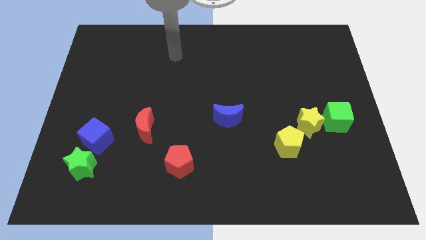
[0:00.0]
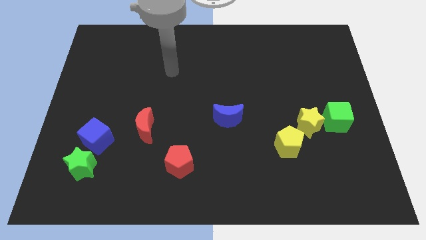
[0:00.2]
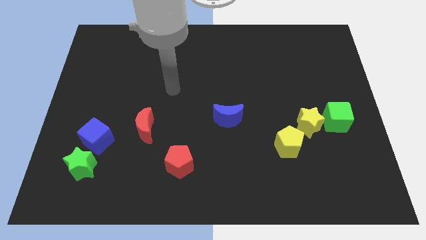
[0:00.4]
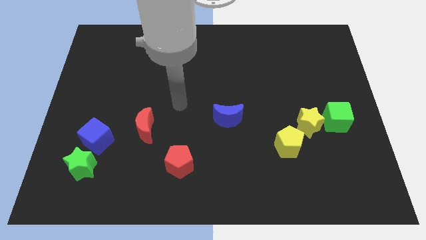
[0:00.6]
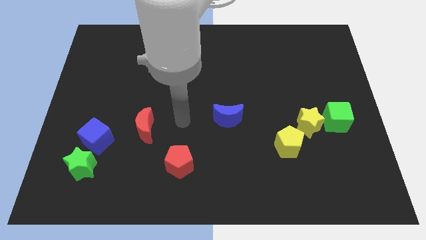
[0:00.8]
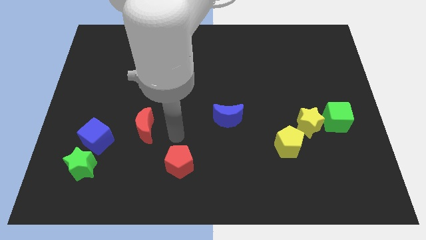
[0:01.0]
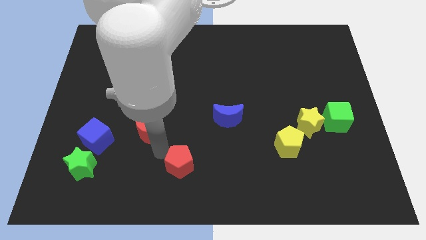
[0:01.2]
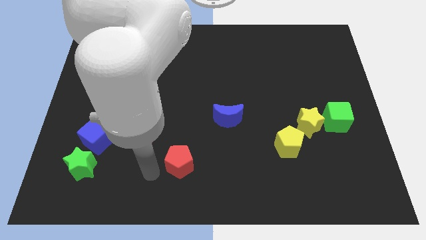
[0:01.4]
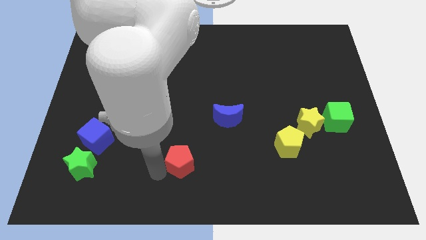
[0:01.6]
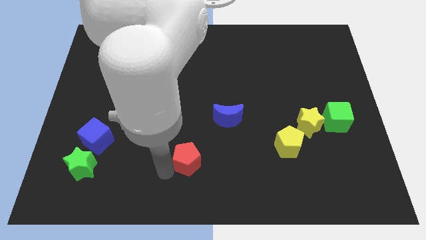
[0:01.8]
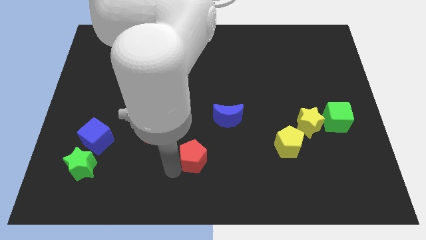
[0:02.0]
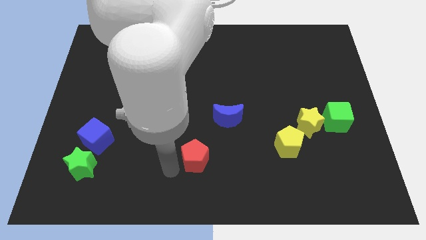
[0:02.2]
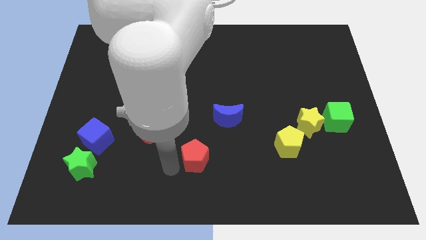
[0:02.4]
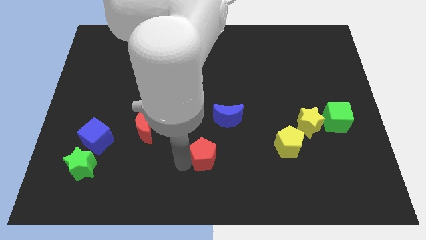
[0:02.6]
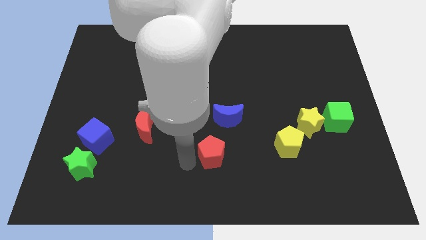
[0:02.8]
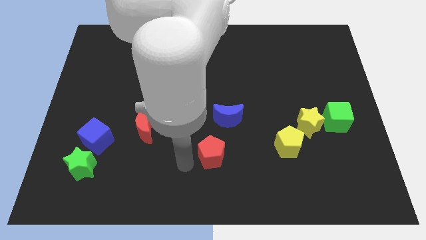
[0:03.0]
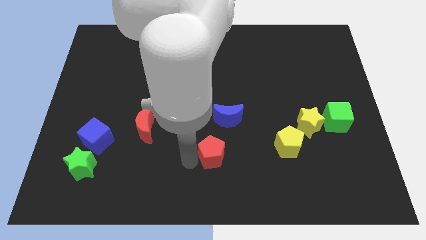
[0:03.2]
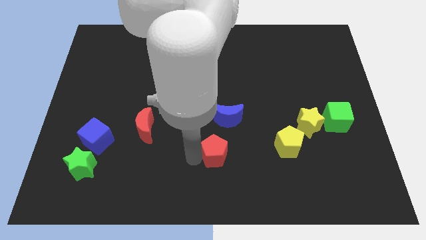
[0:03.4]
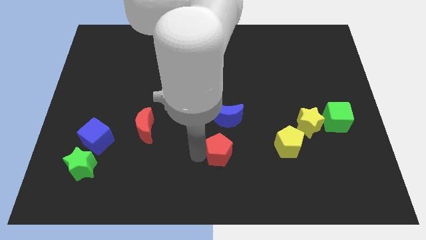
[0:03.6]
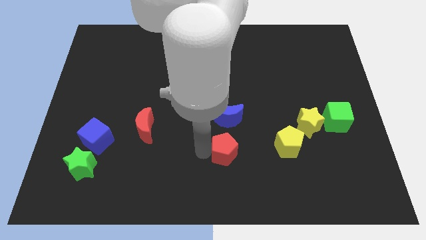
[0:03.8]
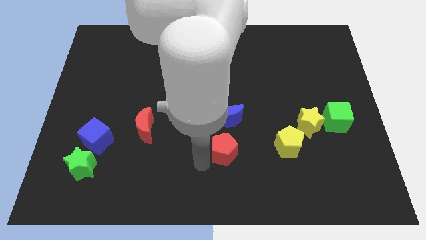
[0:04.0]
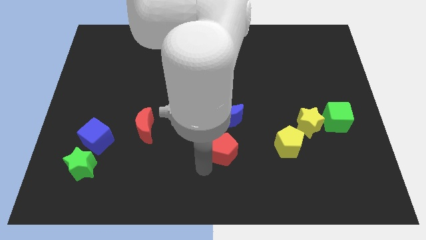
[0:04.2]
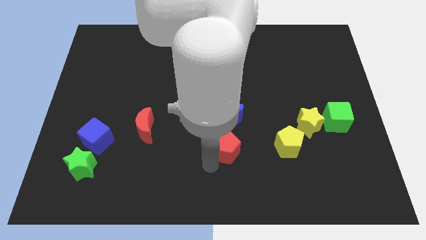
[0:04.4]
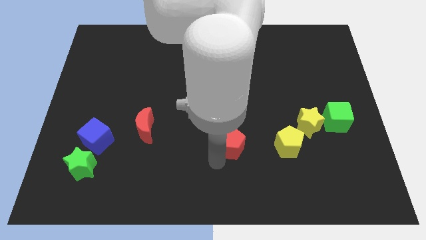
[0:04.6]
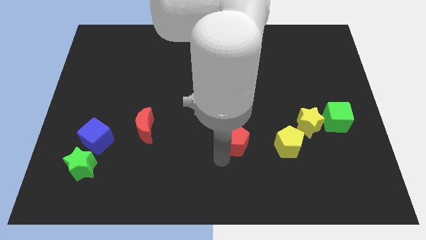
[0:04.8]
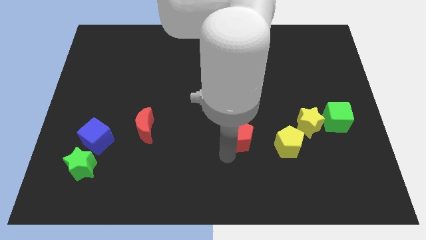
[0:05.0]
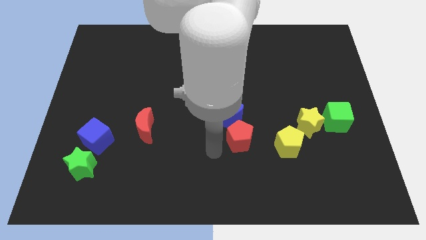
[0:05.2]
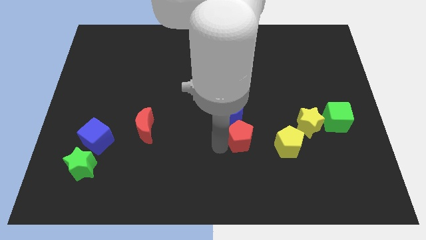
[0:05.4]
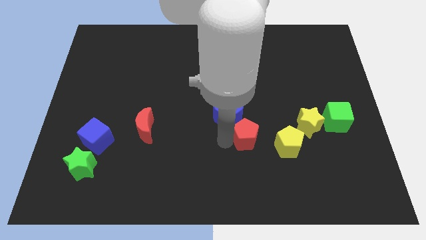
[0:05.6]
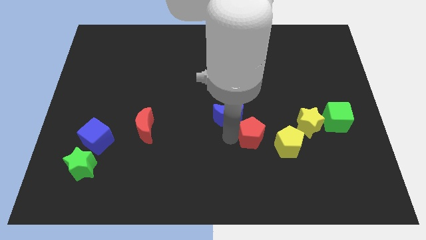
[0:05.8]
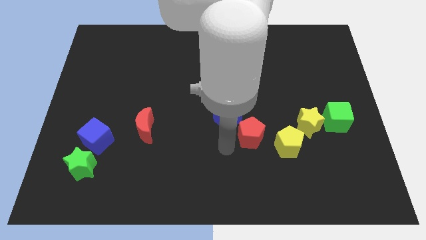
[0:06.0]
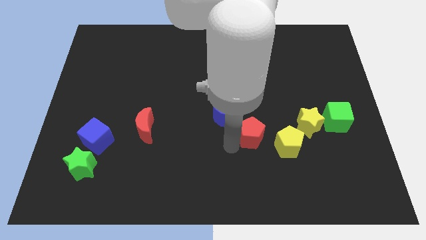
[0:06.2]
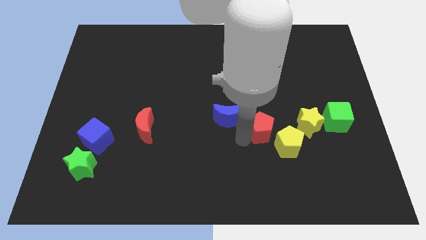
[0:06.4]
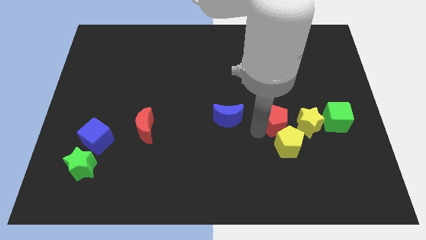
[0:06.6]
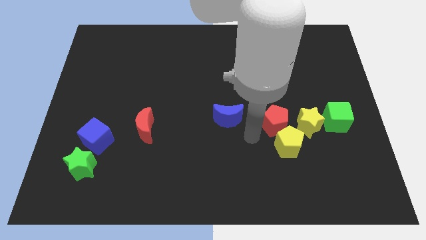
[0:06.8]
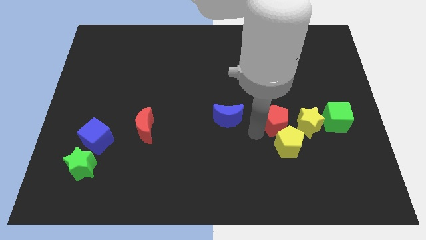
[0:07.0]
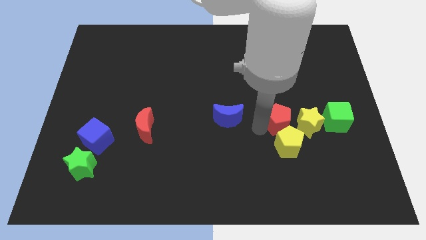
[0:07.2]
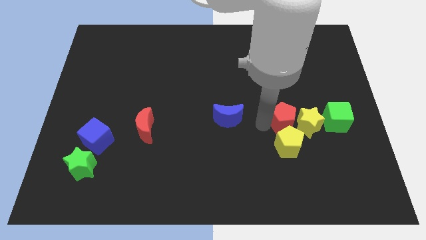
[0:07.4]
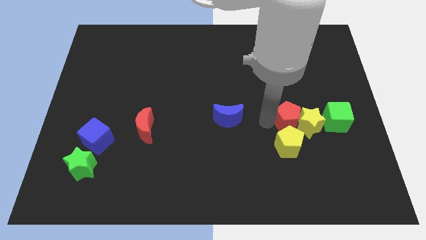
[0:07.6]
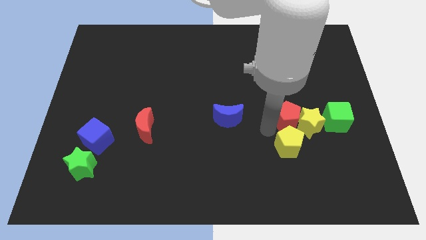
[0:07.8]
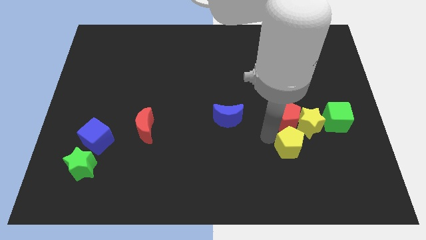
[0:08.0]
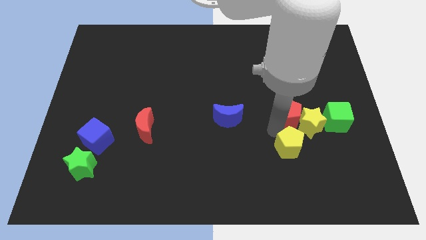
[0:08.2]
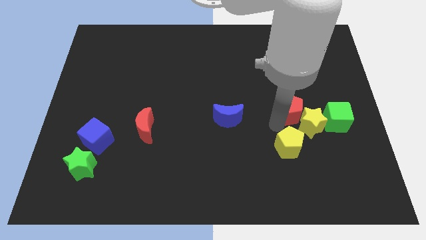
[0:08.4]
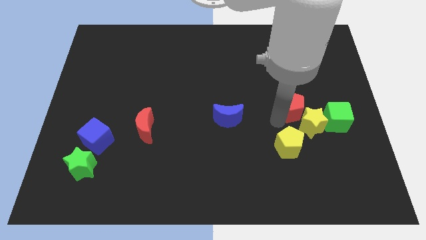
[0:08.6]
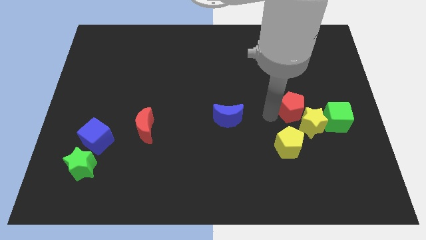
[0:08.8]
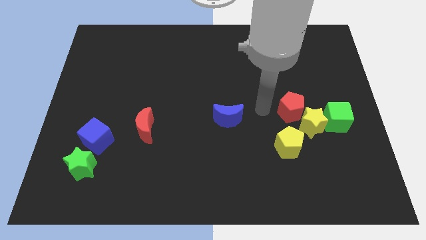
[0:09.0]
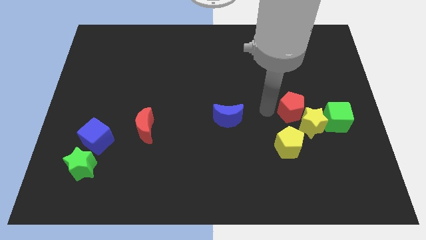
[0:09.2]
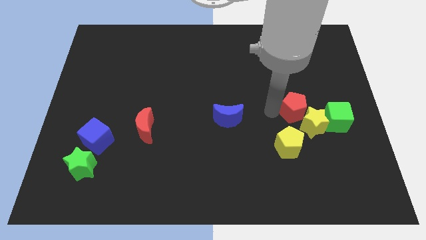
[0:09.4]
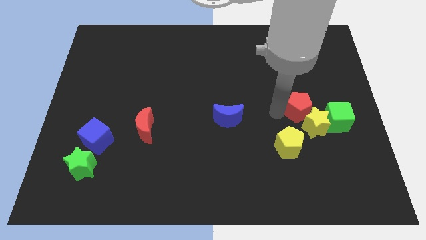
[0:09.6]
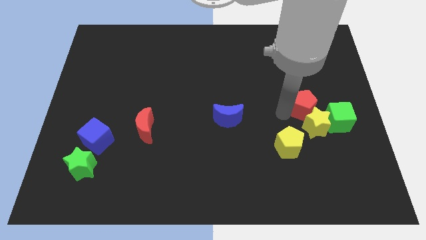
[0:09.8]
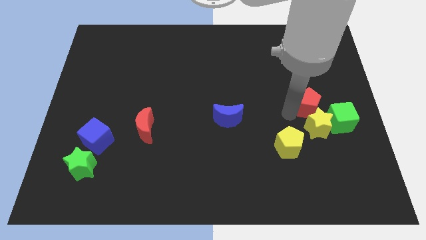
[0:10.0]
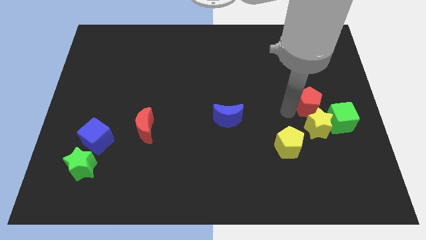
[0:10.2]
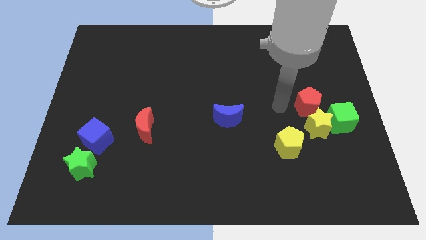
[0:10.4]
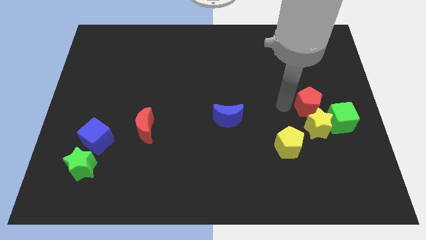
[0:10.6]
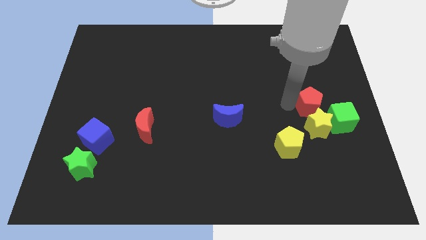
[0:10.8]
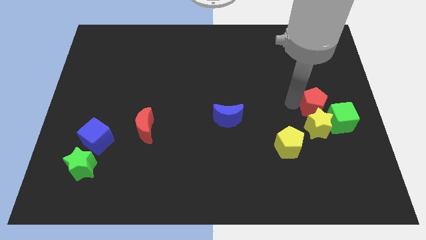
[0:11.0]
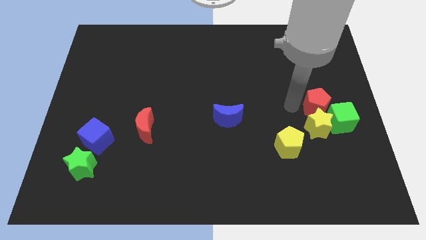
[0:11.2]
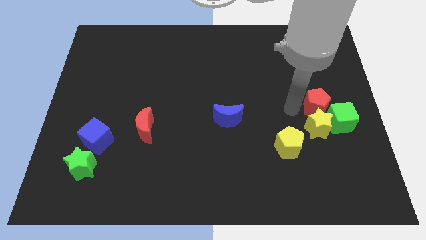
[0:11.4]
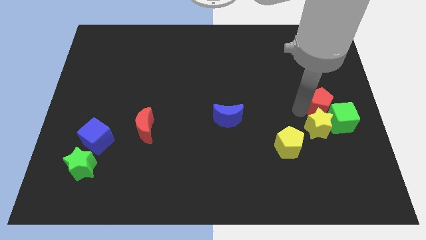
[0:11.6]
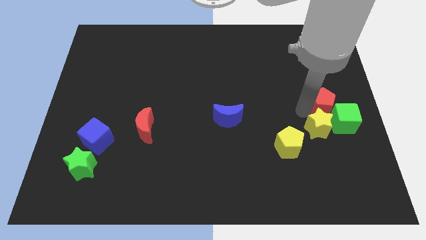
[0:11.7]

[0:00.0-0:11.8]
slide the red pentagon to the right side of the board

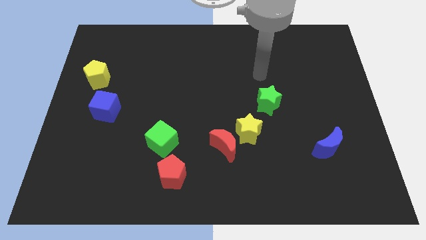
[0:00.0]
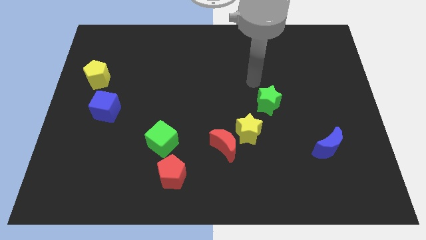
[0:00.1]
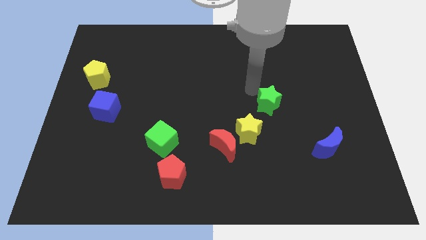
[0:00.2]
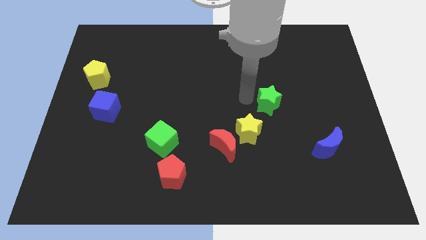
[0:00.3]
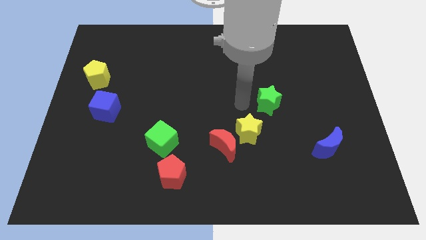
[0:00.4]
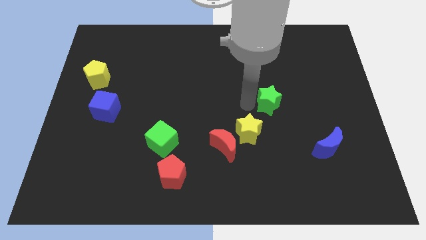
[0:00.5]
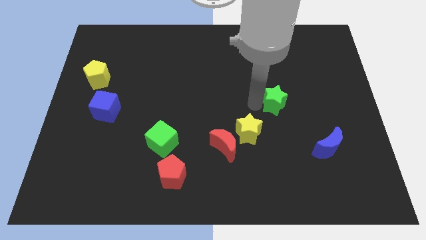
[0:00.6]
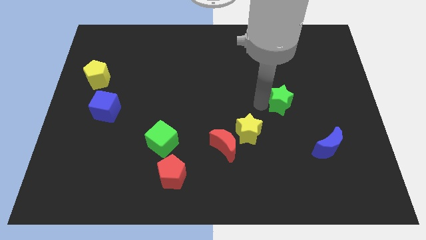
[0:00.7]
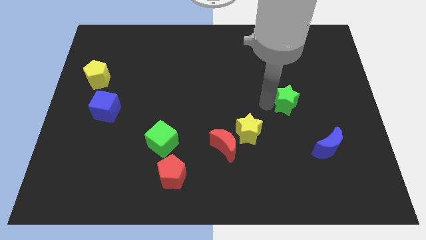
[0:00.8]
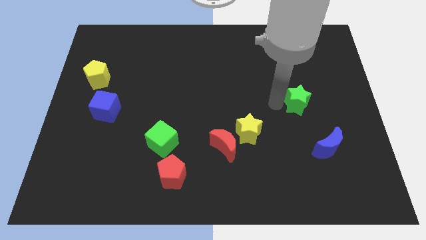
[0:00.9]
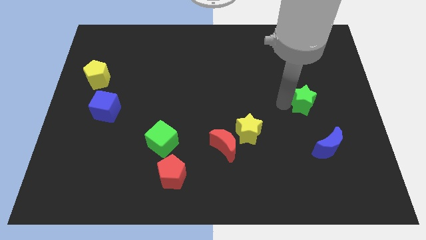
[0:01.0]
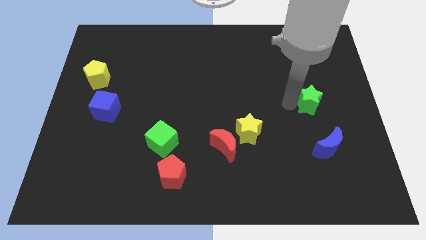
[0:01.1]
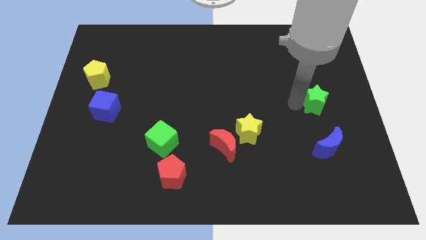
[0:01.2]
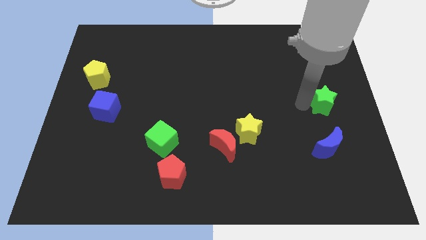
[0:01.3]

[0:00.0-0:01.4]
move the green star to the center right

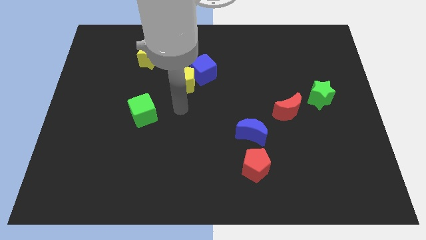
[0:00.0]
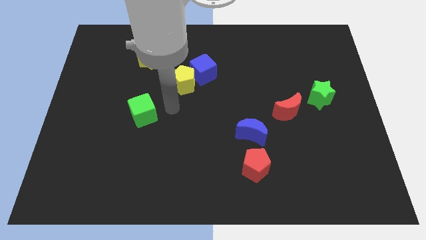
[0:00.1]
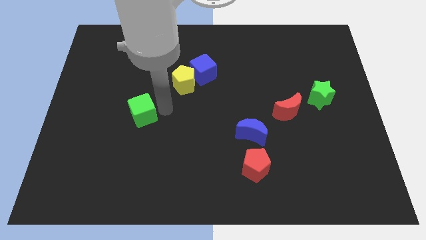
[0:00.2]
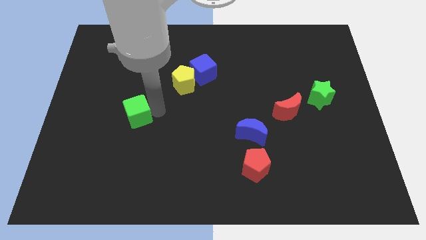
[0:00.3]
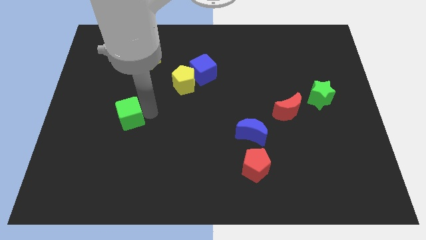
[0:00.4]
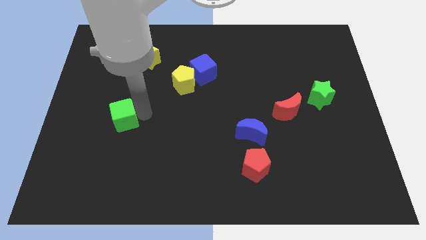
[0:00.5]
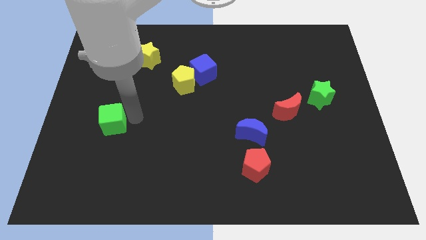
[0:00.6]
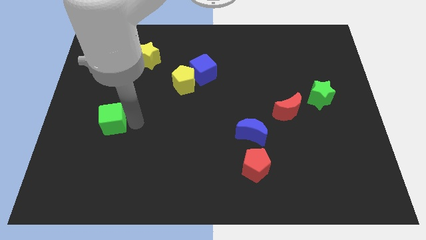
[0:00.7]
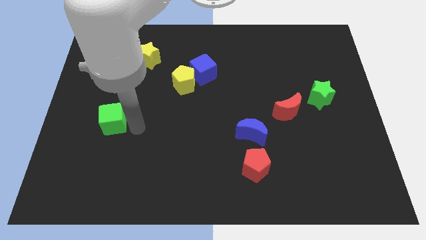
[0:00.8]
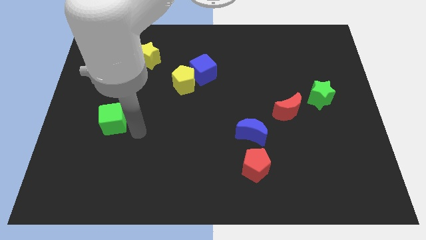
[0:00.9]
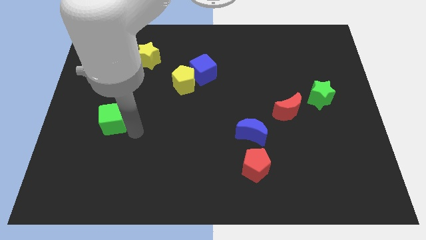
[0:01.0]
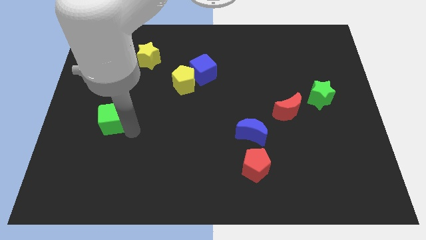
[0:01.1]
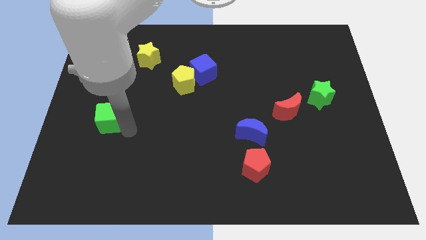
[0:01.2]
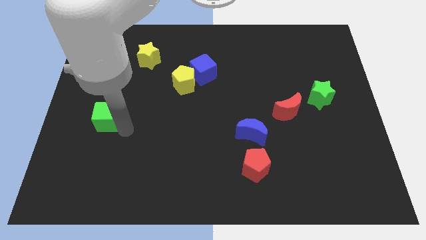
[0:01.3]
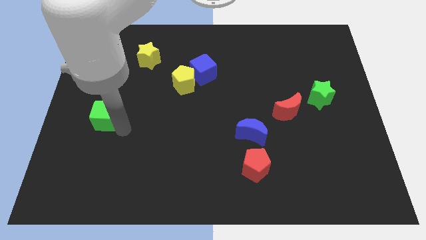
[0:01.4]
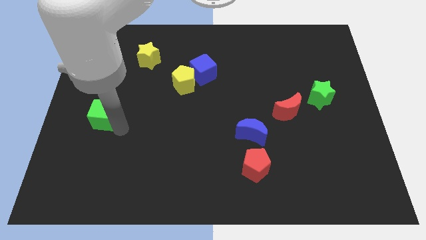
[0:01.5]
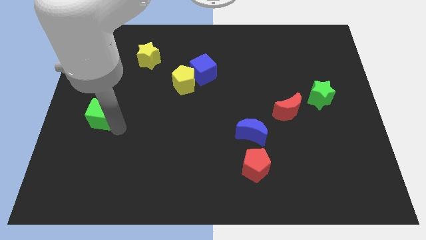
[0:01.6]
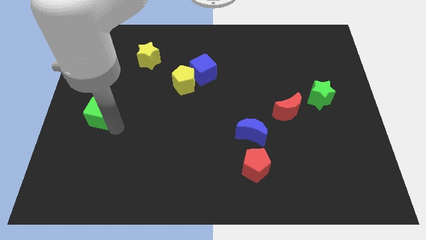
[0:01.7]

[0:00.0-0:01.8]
move the green cube to the left side
